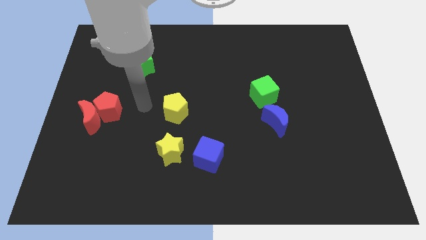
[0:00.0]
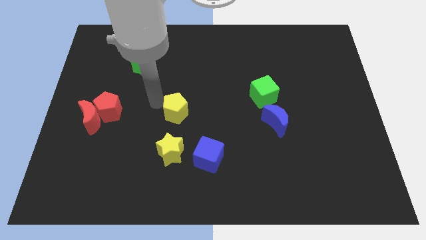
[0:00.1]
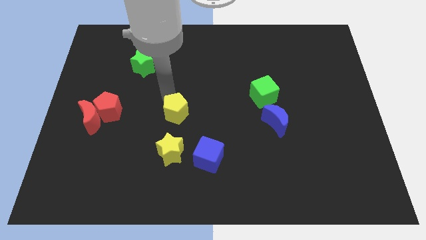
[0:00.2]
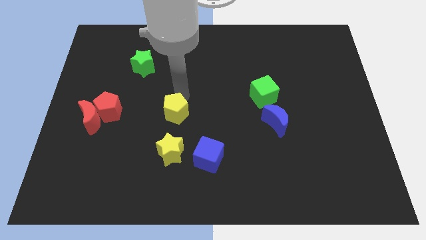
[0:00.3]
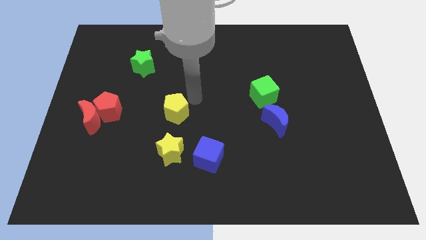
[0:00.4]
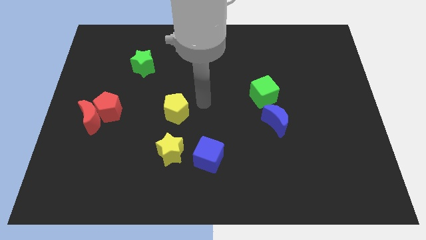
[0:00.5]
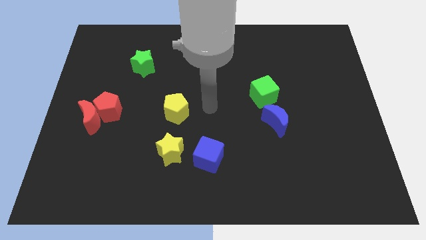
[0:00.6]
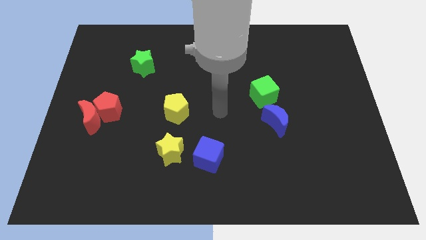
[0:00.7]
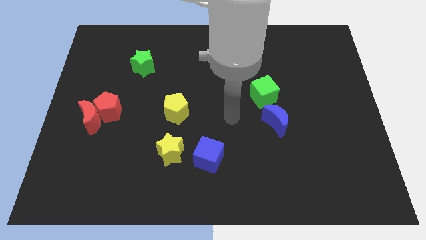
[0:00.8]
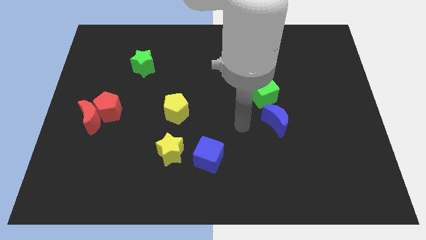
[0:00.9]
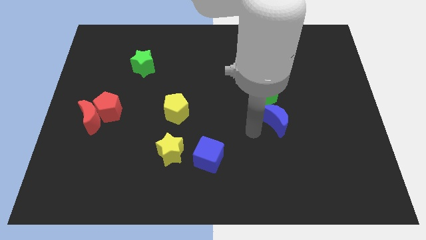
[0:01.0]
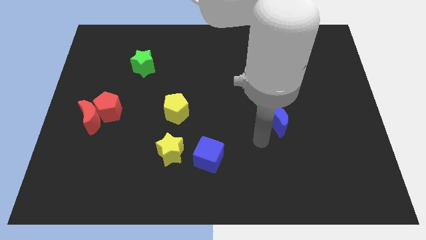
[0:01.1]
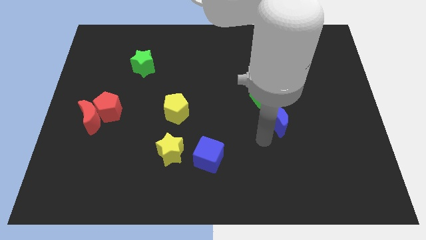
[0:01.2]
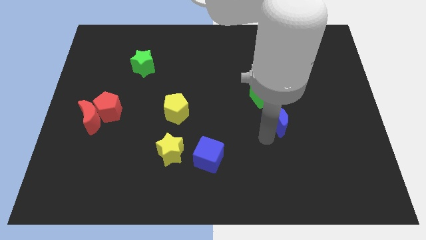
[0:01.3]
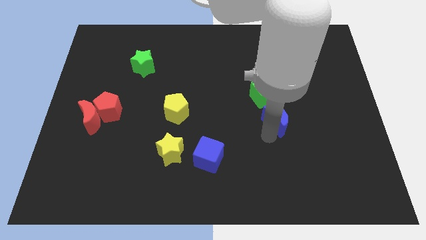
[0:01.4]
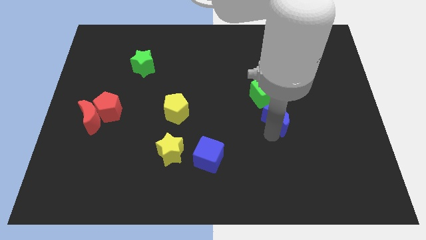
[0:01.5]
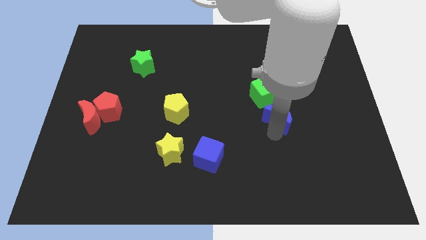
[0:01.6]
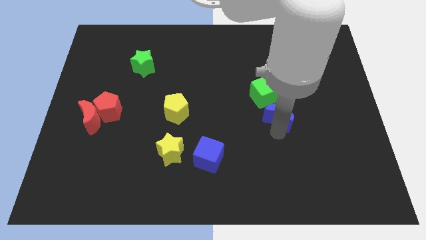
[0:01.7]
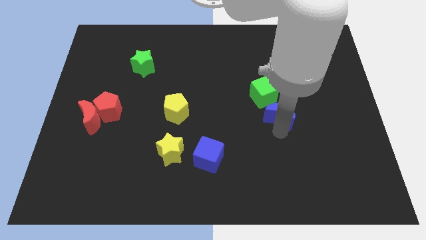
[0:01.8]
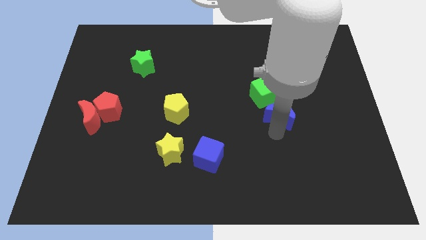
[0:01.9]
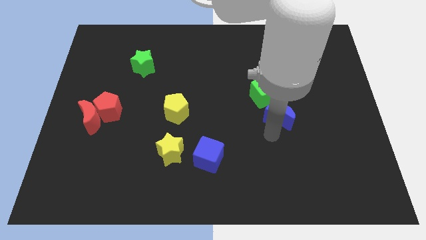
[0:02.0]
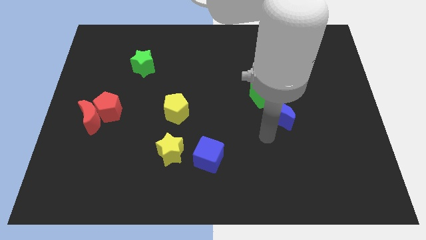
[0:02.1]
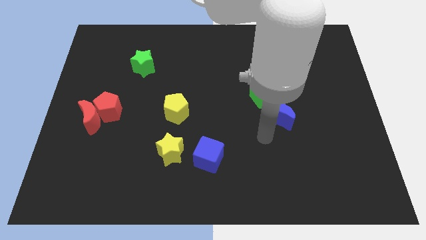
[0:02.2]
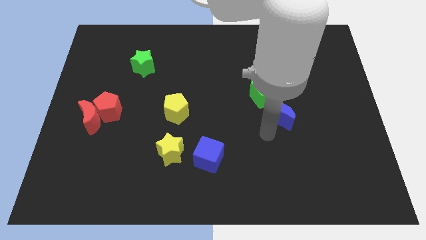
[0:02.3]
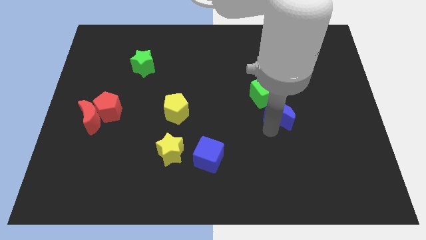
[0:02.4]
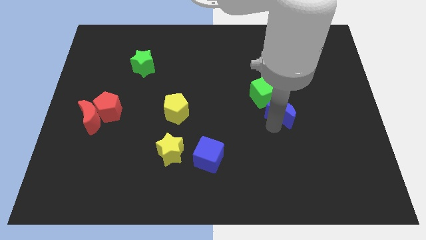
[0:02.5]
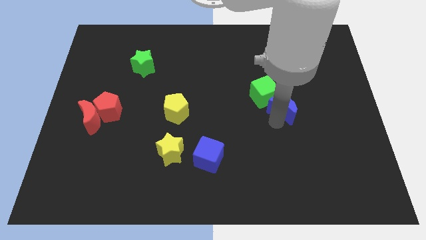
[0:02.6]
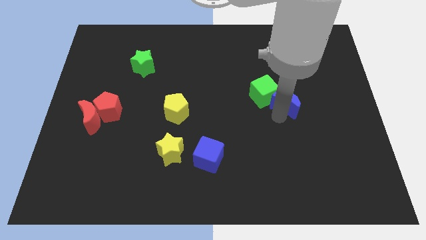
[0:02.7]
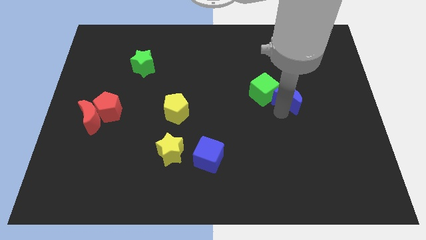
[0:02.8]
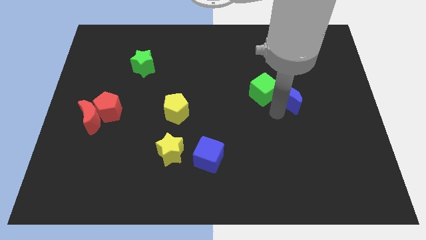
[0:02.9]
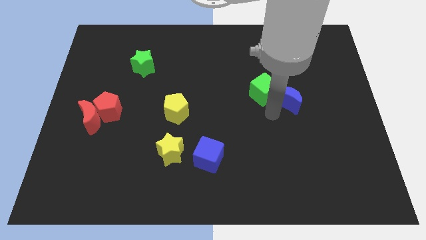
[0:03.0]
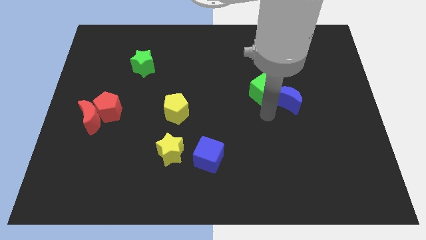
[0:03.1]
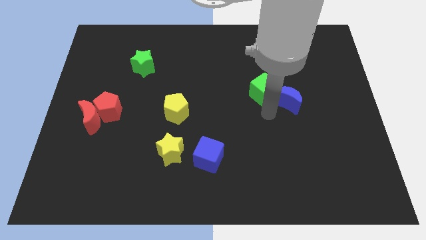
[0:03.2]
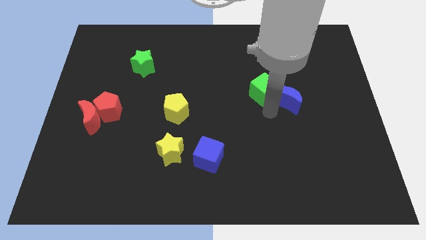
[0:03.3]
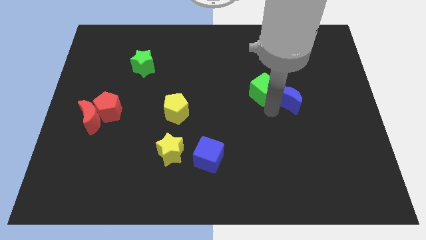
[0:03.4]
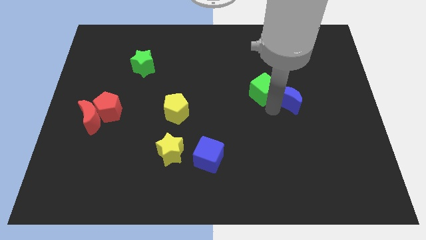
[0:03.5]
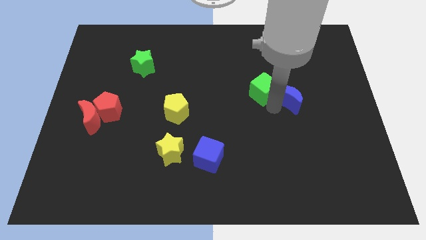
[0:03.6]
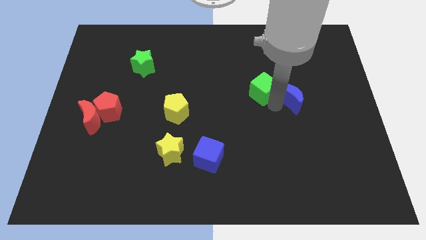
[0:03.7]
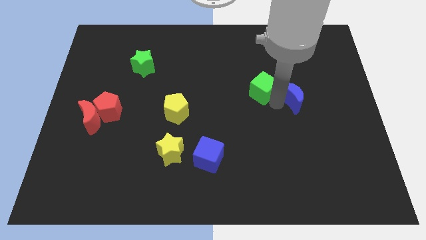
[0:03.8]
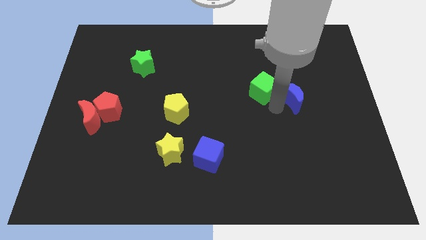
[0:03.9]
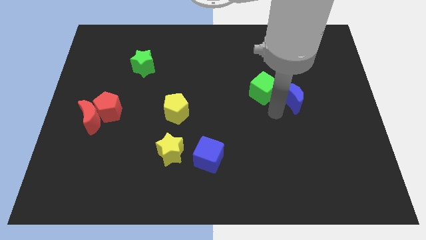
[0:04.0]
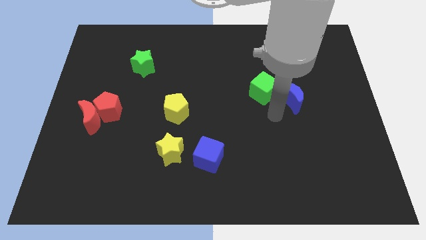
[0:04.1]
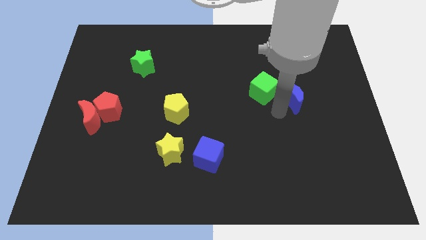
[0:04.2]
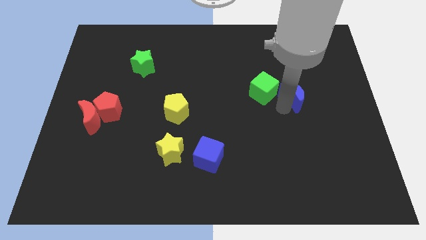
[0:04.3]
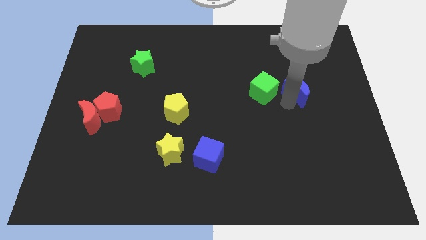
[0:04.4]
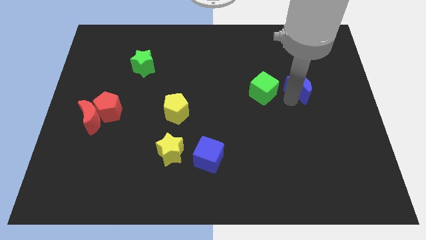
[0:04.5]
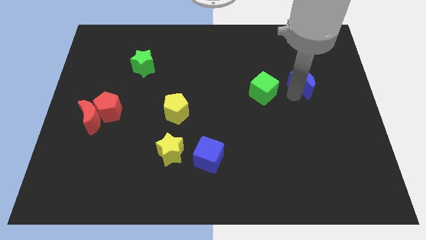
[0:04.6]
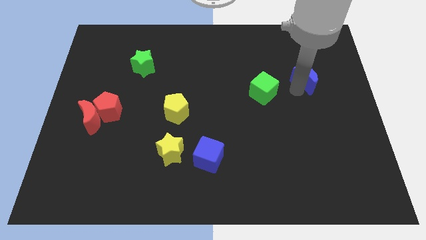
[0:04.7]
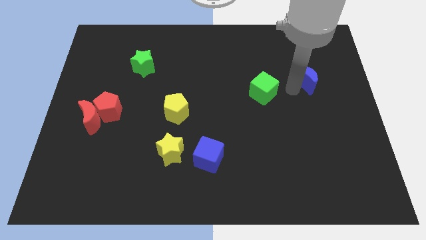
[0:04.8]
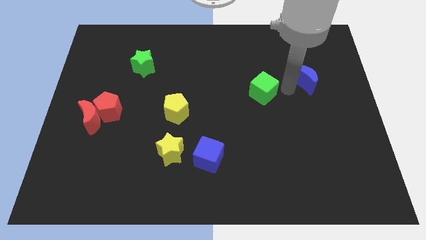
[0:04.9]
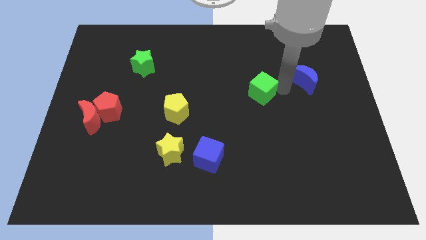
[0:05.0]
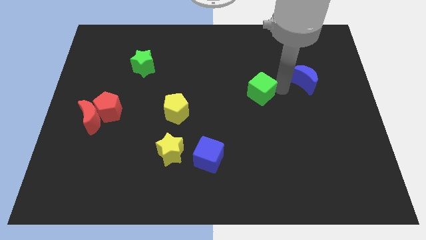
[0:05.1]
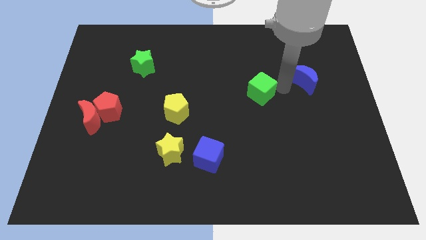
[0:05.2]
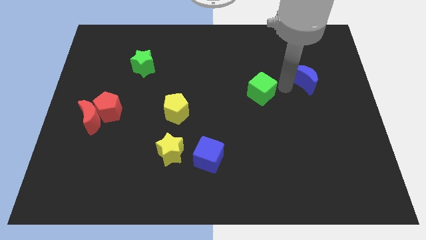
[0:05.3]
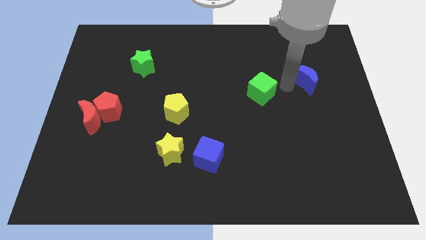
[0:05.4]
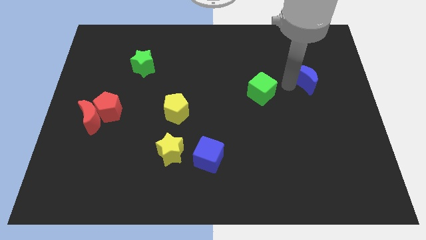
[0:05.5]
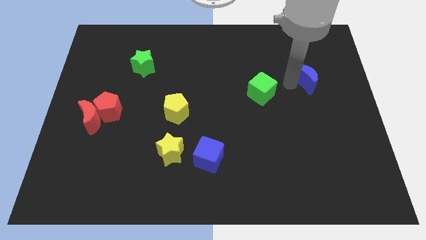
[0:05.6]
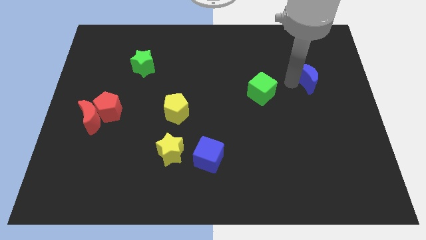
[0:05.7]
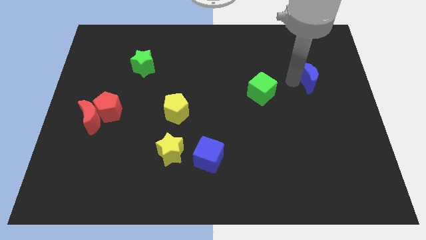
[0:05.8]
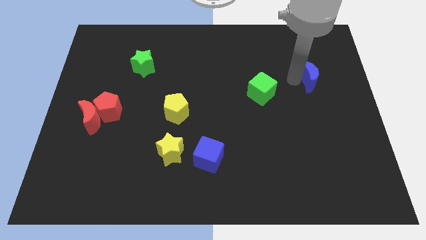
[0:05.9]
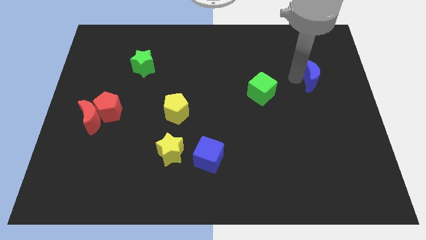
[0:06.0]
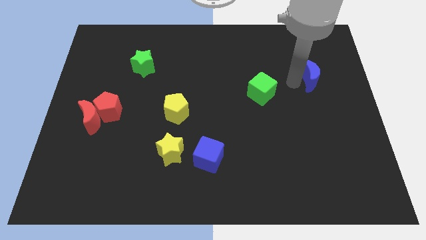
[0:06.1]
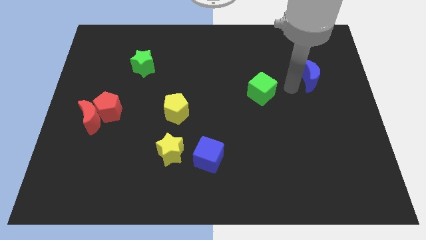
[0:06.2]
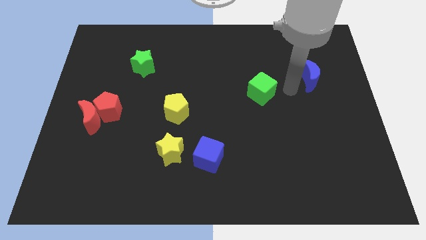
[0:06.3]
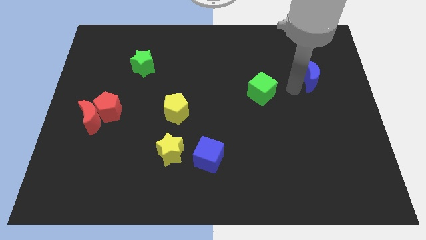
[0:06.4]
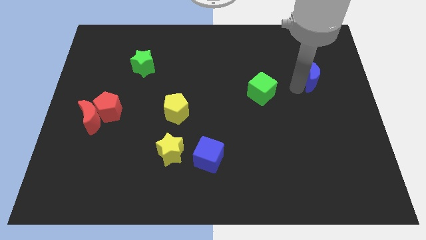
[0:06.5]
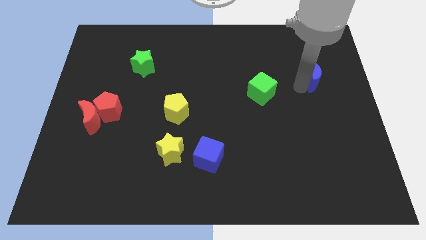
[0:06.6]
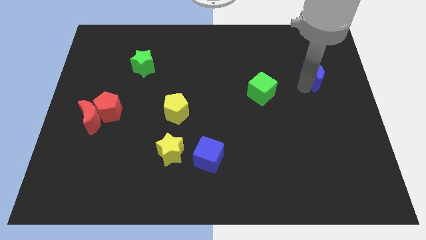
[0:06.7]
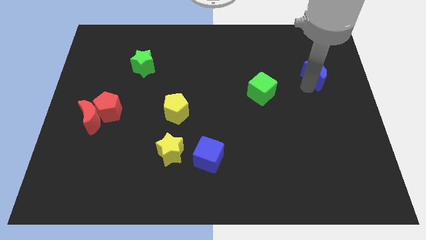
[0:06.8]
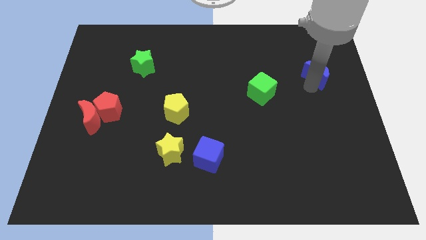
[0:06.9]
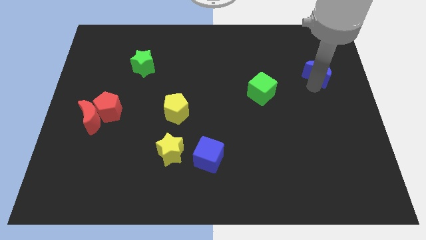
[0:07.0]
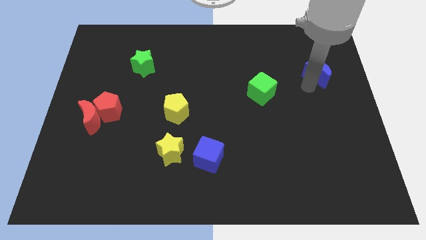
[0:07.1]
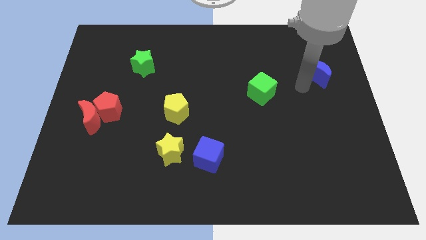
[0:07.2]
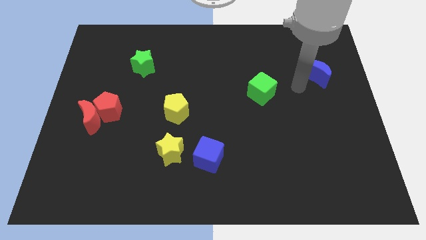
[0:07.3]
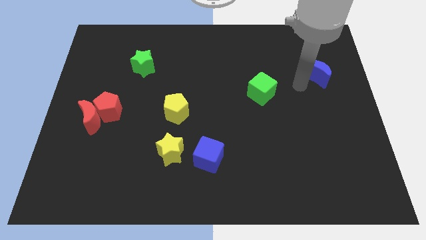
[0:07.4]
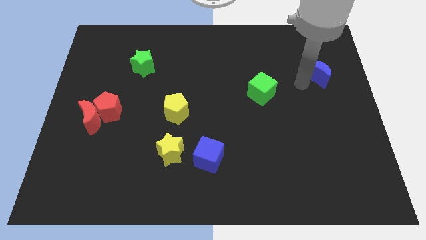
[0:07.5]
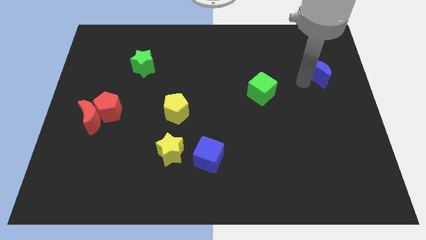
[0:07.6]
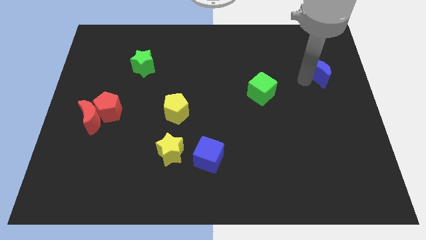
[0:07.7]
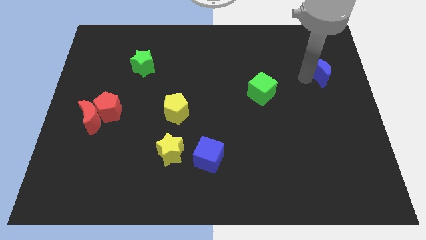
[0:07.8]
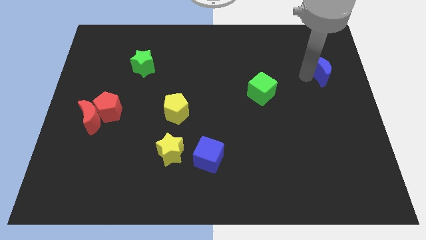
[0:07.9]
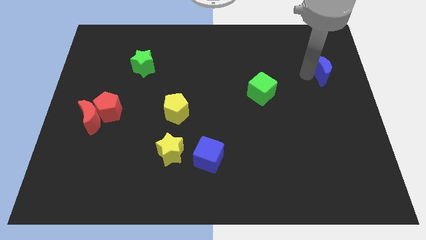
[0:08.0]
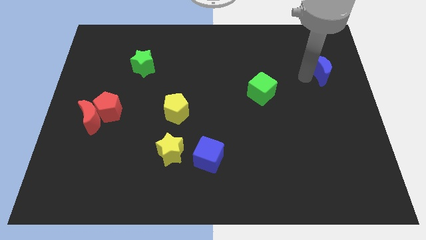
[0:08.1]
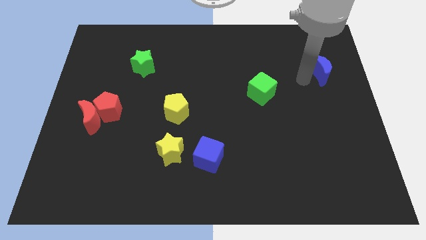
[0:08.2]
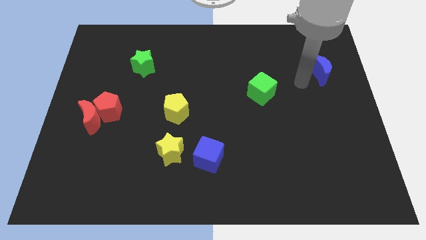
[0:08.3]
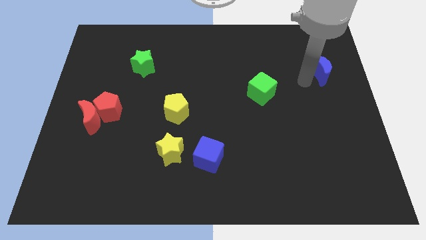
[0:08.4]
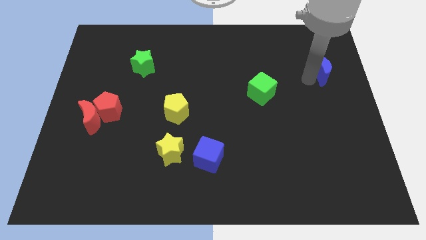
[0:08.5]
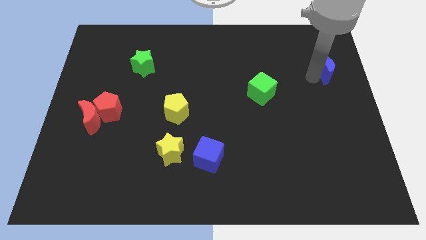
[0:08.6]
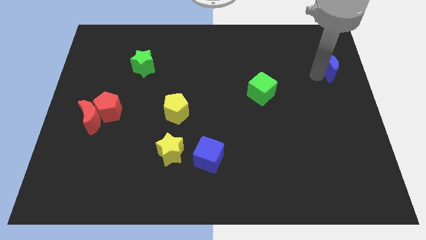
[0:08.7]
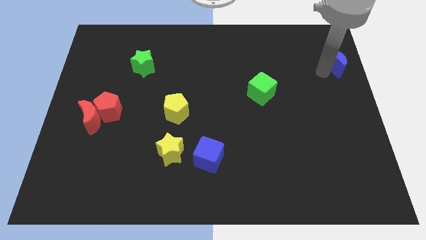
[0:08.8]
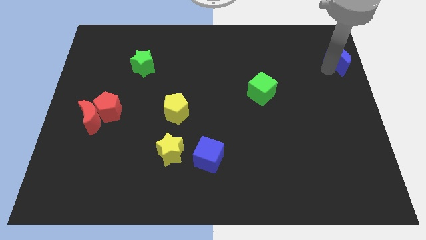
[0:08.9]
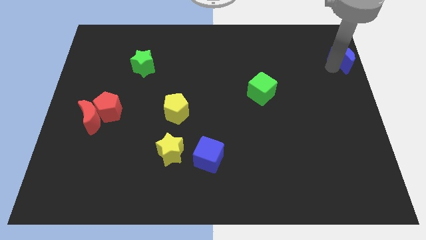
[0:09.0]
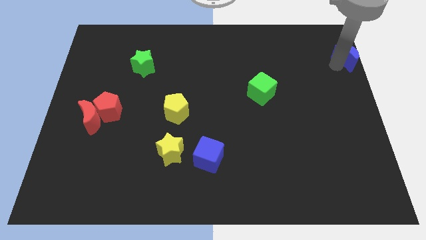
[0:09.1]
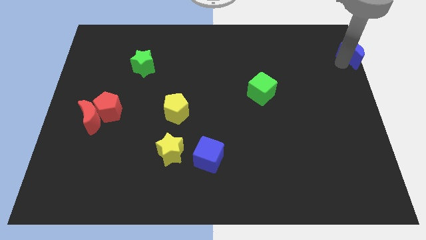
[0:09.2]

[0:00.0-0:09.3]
move the blue moon to the upper right corner
